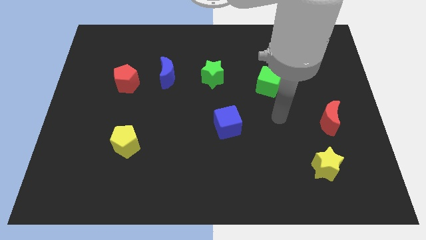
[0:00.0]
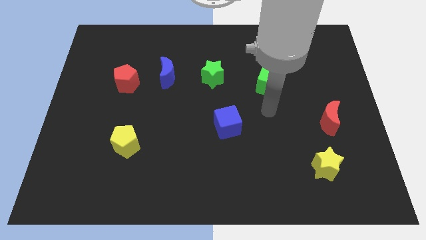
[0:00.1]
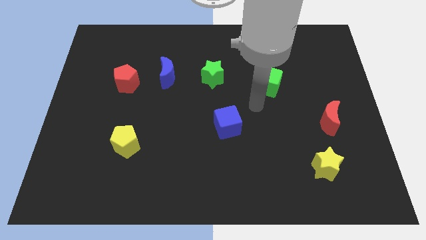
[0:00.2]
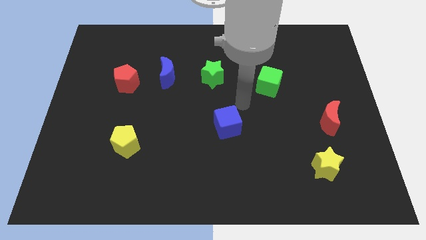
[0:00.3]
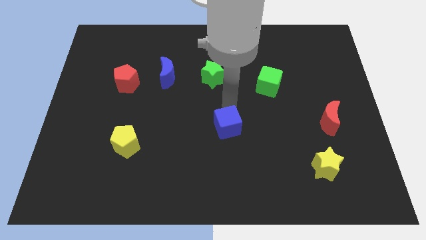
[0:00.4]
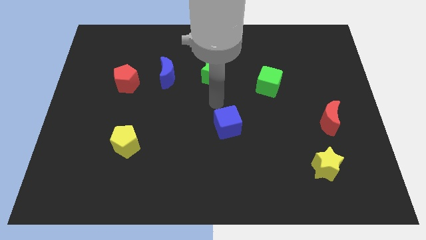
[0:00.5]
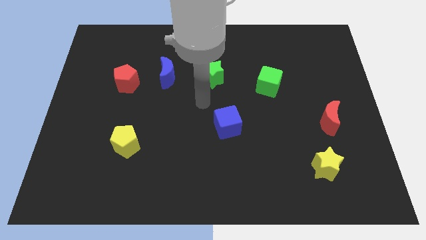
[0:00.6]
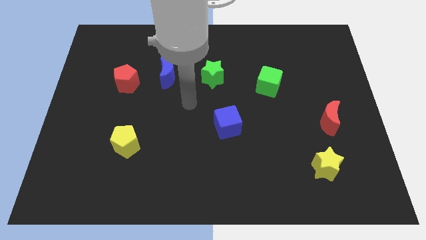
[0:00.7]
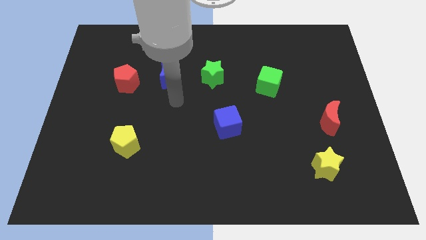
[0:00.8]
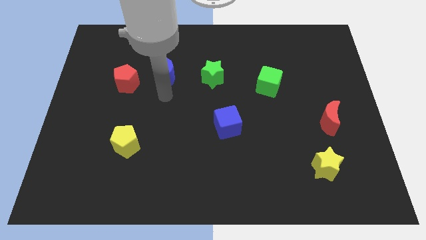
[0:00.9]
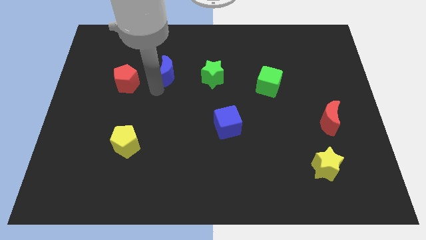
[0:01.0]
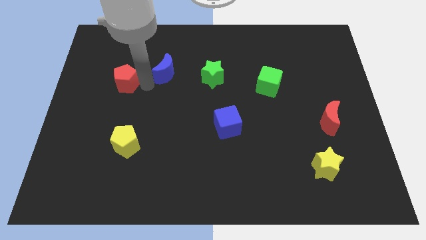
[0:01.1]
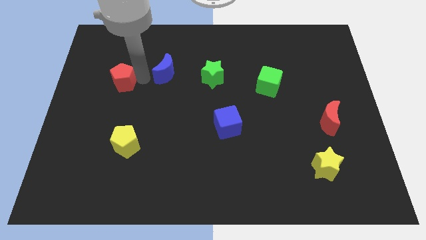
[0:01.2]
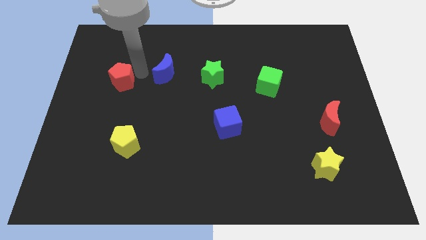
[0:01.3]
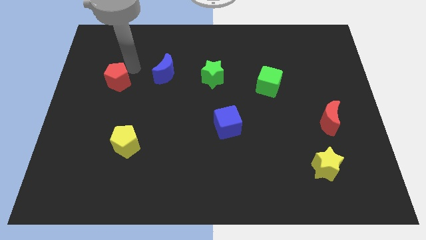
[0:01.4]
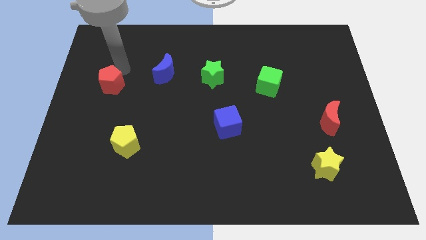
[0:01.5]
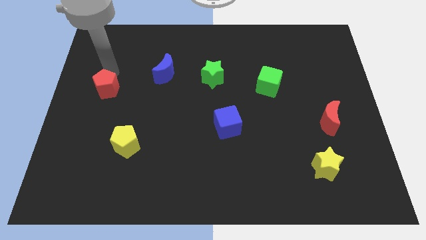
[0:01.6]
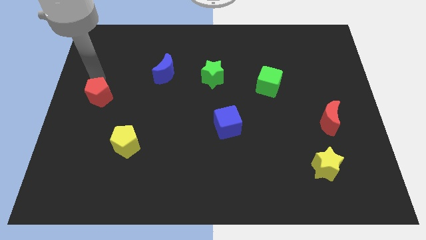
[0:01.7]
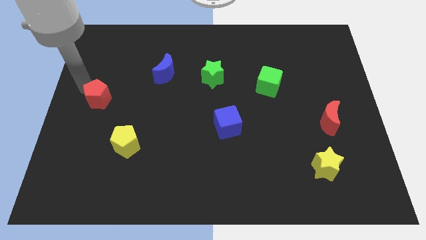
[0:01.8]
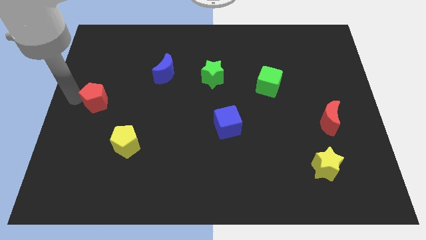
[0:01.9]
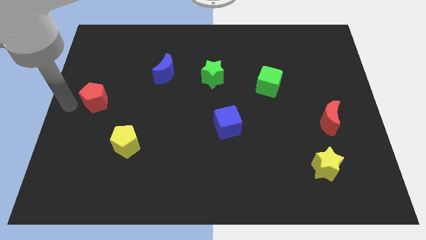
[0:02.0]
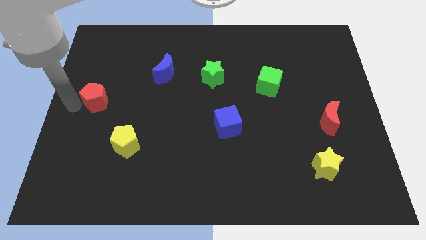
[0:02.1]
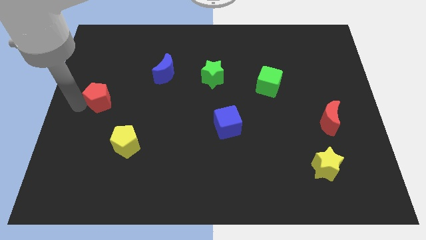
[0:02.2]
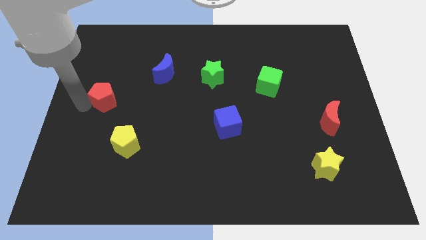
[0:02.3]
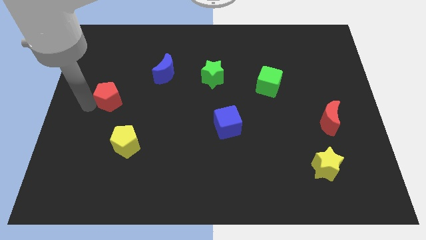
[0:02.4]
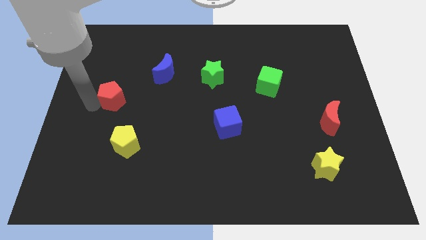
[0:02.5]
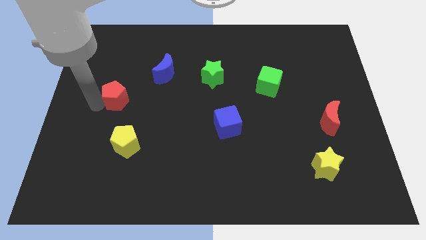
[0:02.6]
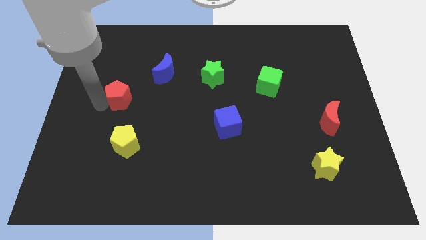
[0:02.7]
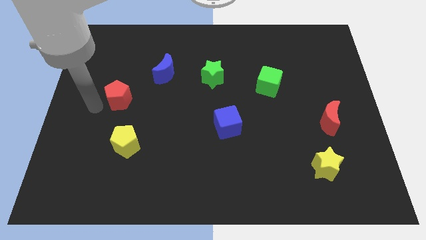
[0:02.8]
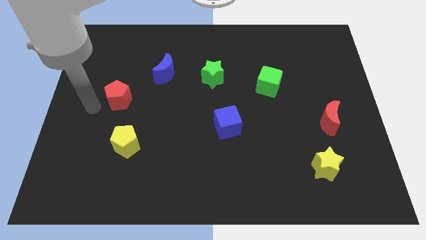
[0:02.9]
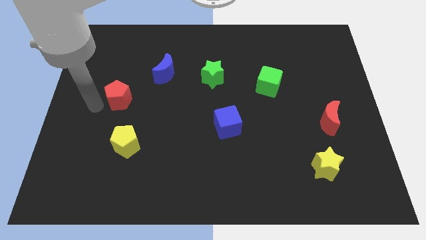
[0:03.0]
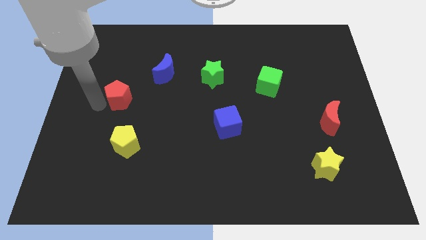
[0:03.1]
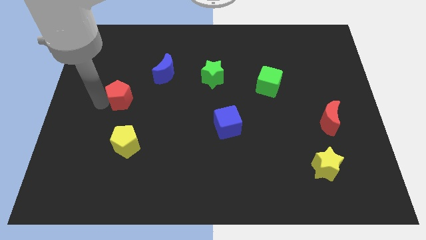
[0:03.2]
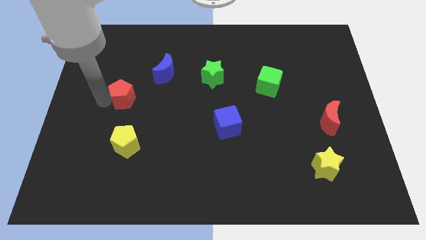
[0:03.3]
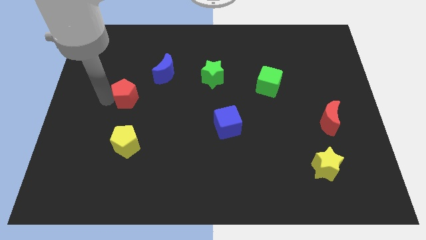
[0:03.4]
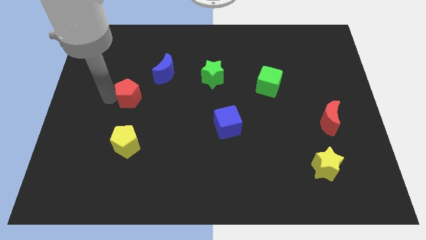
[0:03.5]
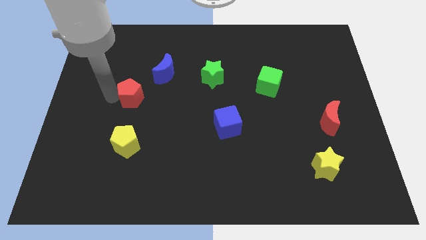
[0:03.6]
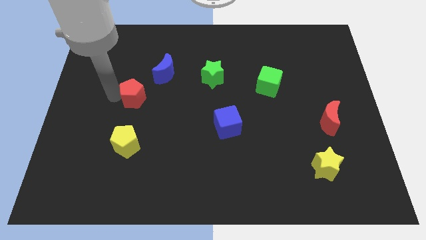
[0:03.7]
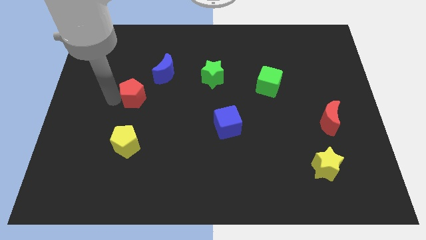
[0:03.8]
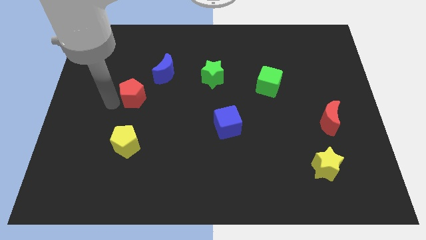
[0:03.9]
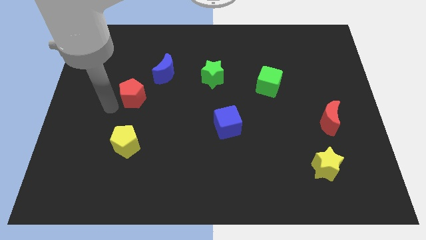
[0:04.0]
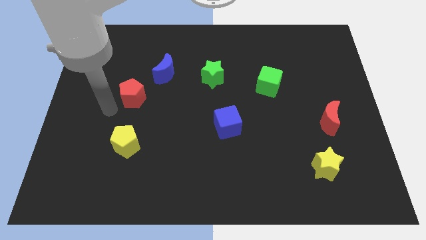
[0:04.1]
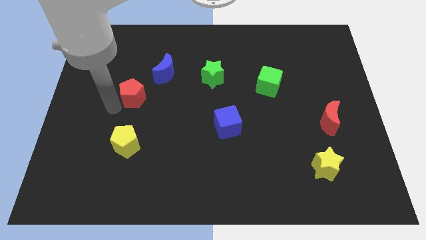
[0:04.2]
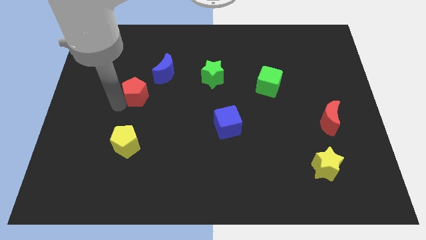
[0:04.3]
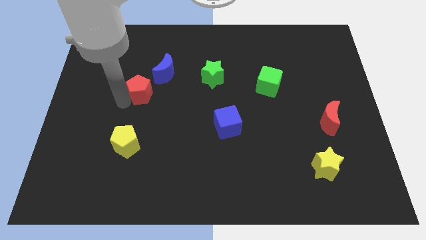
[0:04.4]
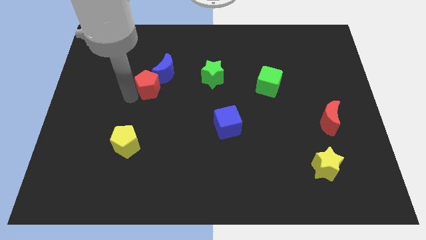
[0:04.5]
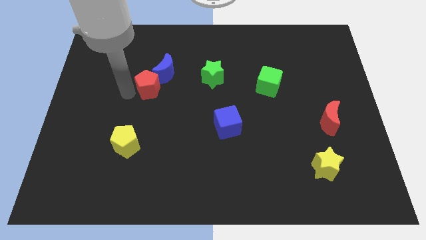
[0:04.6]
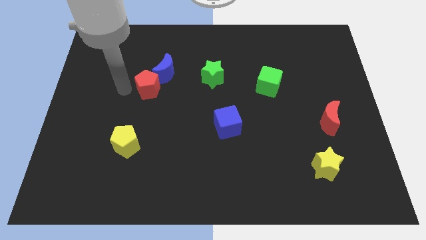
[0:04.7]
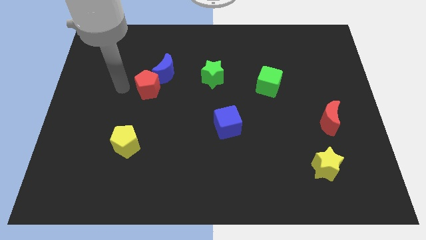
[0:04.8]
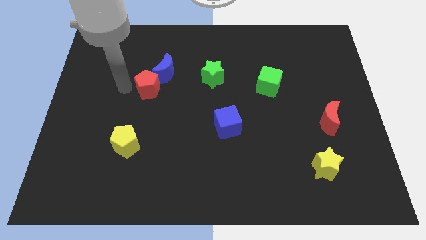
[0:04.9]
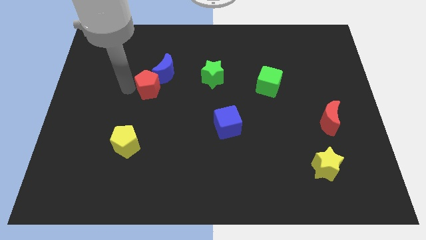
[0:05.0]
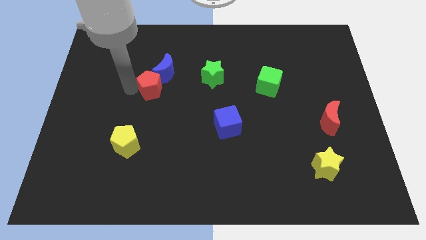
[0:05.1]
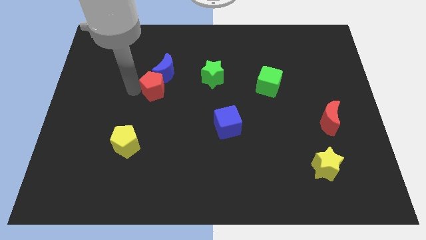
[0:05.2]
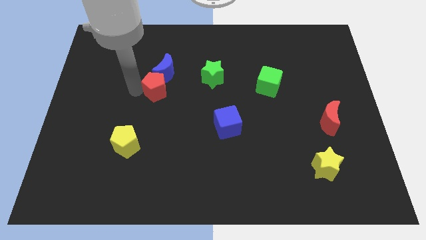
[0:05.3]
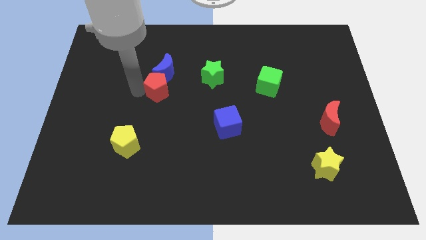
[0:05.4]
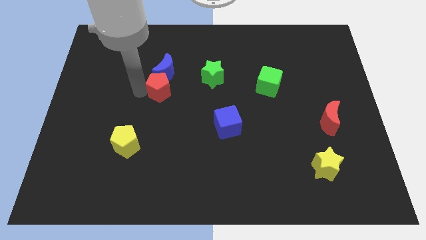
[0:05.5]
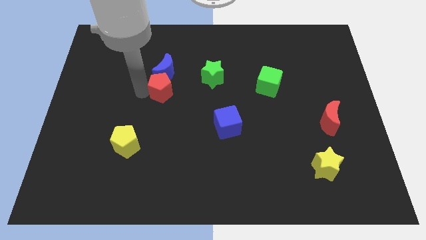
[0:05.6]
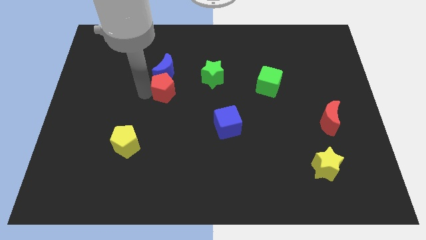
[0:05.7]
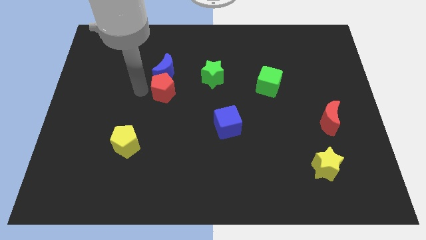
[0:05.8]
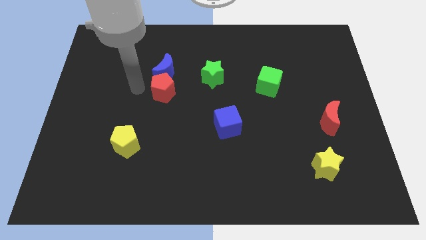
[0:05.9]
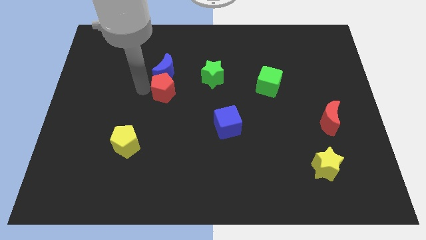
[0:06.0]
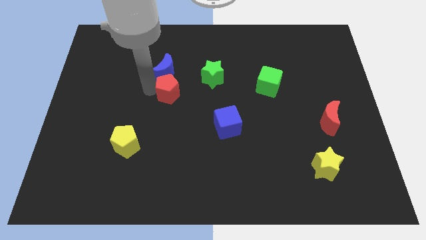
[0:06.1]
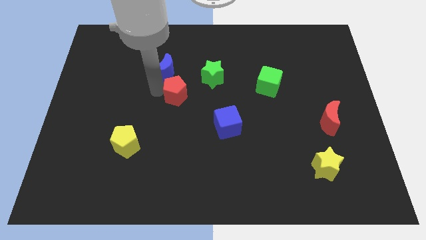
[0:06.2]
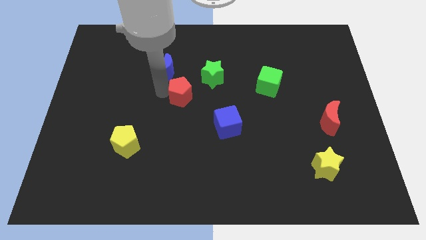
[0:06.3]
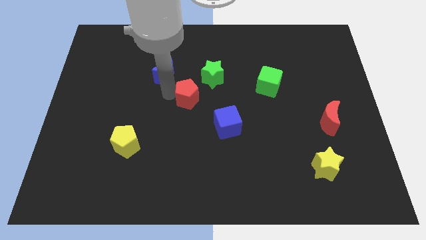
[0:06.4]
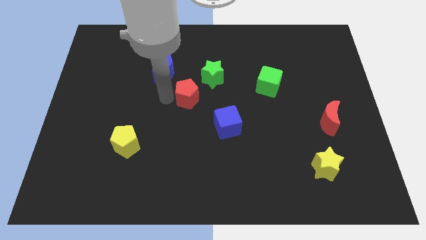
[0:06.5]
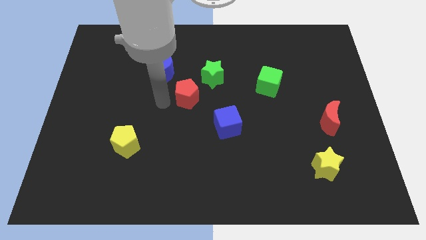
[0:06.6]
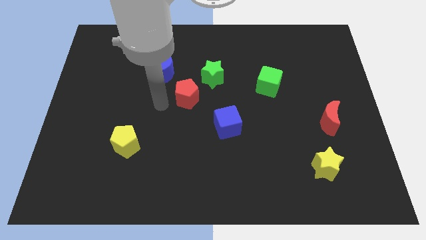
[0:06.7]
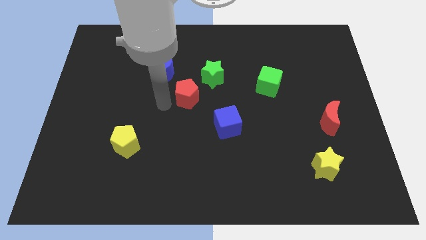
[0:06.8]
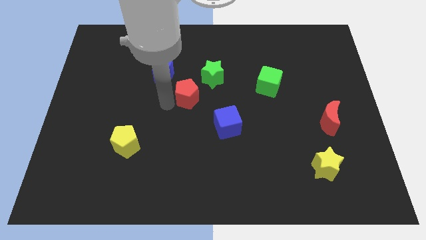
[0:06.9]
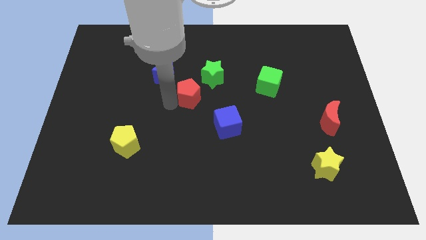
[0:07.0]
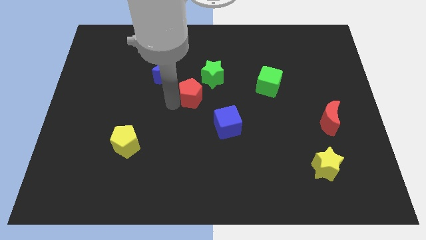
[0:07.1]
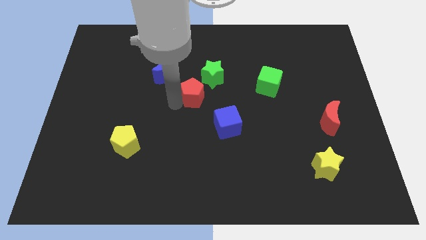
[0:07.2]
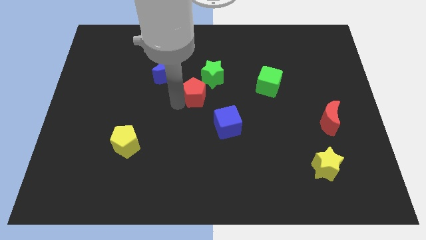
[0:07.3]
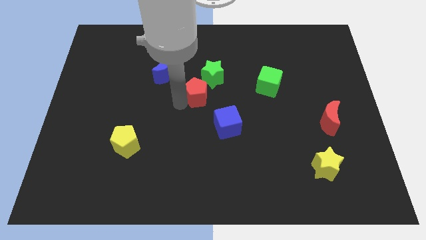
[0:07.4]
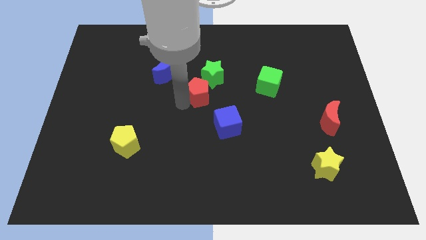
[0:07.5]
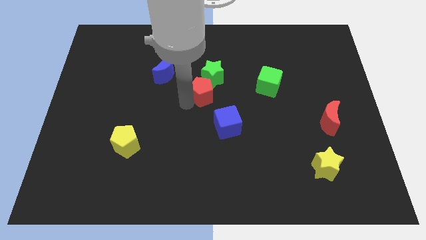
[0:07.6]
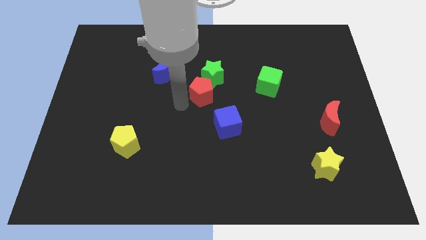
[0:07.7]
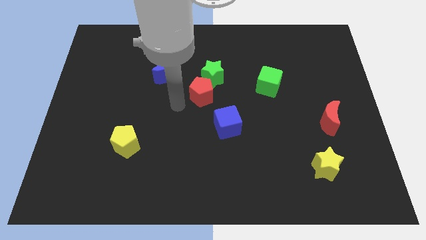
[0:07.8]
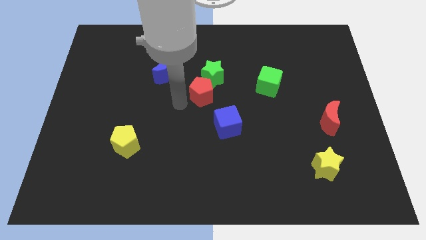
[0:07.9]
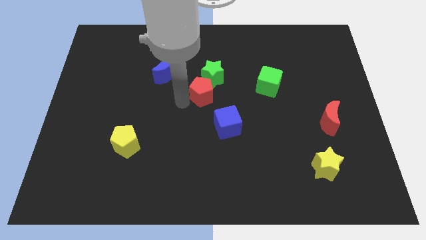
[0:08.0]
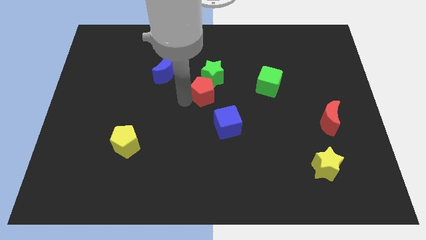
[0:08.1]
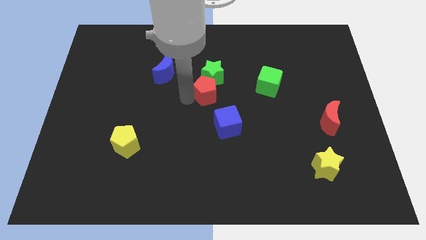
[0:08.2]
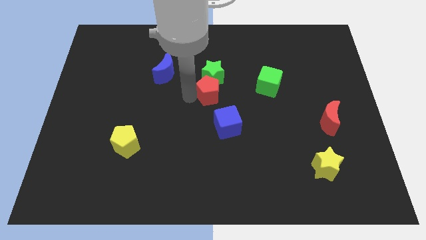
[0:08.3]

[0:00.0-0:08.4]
slide the red pentagon to the left side of the green cube
